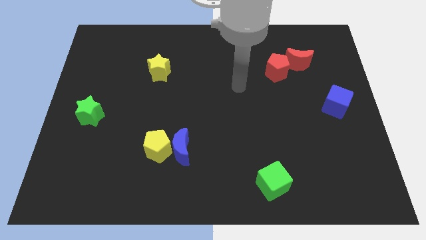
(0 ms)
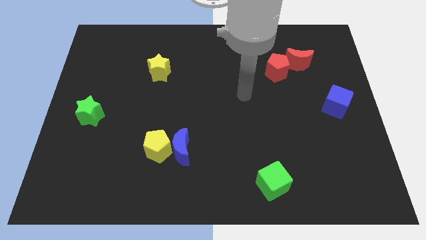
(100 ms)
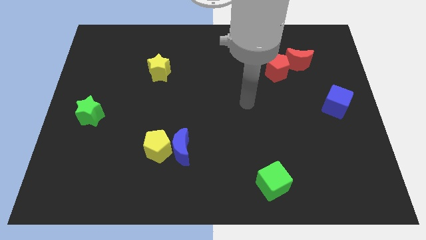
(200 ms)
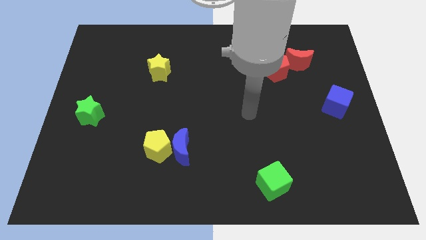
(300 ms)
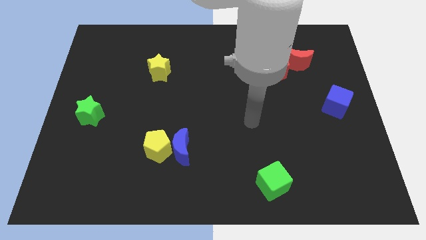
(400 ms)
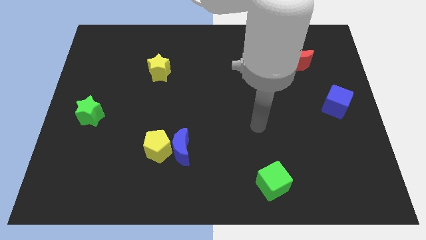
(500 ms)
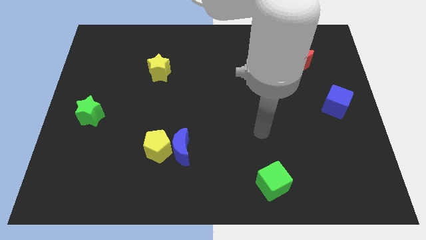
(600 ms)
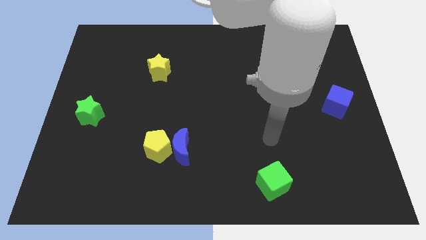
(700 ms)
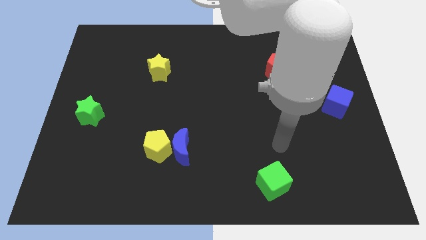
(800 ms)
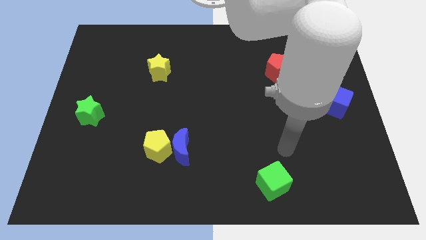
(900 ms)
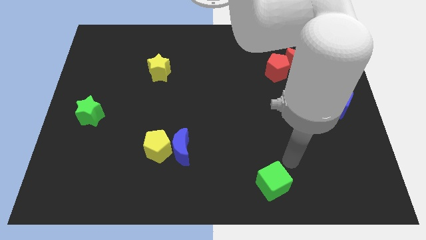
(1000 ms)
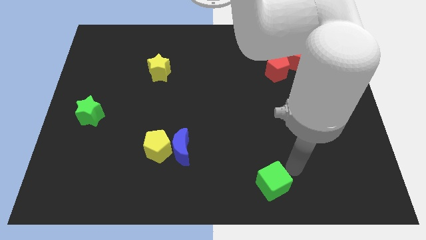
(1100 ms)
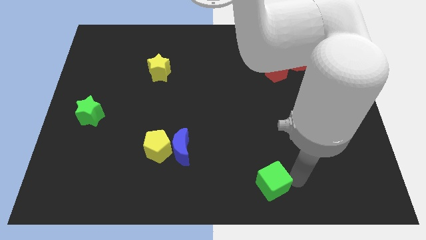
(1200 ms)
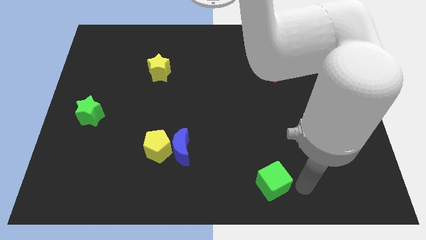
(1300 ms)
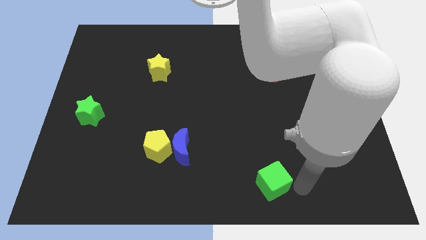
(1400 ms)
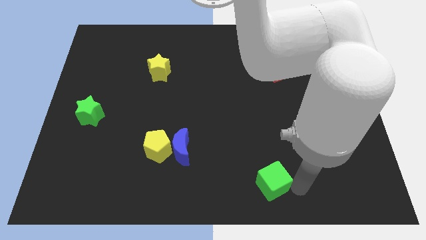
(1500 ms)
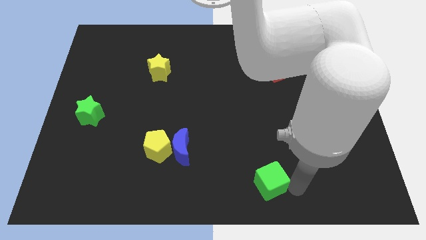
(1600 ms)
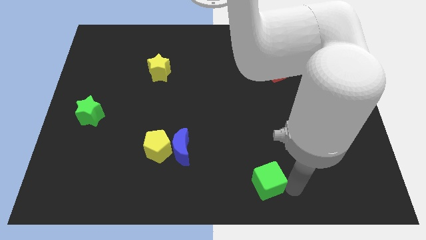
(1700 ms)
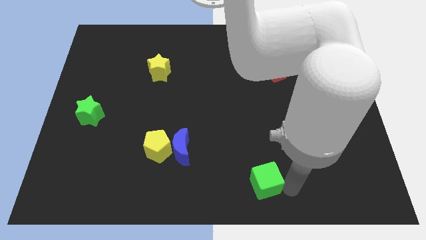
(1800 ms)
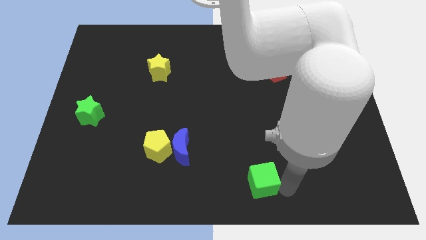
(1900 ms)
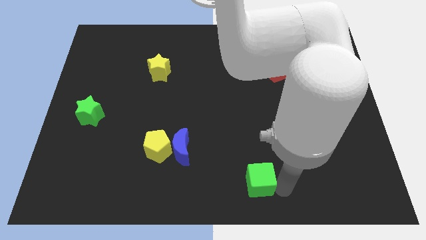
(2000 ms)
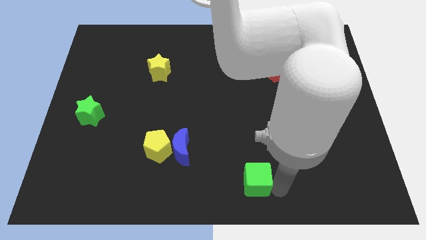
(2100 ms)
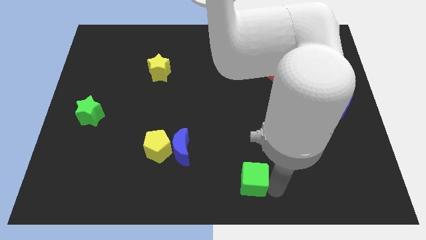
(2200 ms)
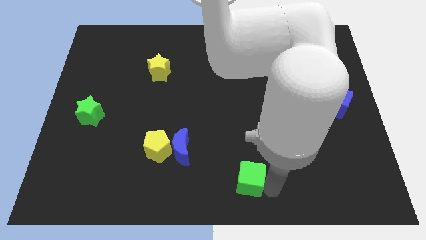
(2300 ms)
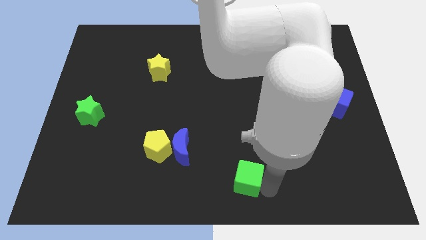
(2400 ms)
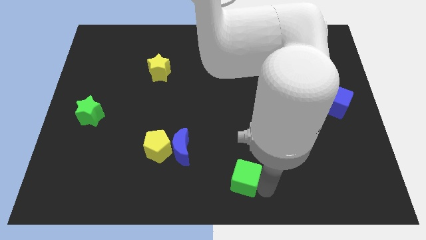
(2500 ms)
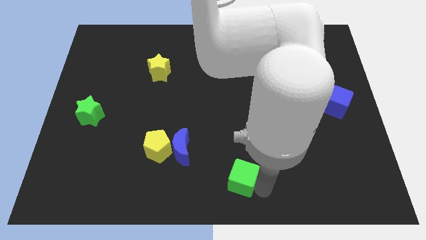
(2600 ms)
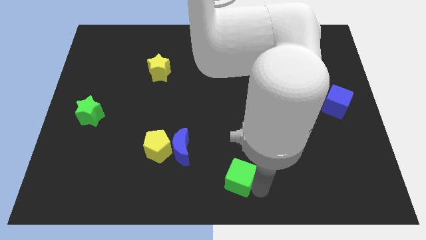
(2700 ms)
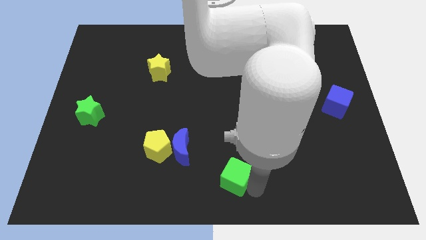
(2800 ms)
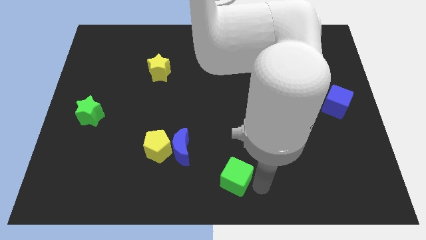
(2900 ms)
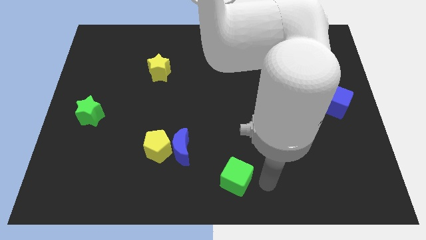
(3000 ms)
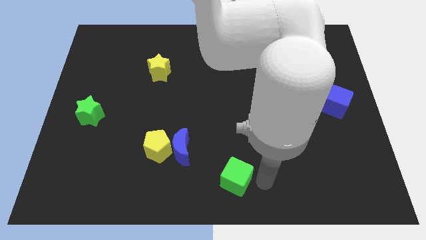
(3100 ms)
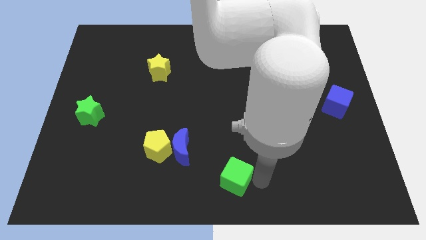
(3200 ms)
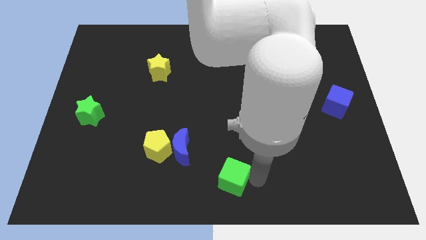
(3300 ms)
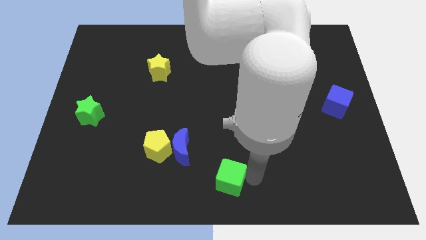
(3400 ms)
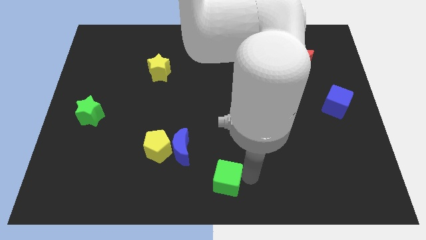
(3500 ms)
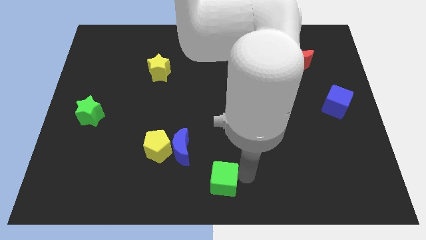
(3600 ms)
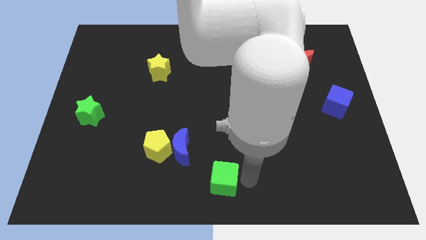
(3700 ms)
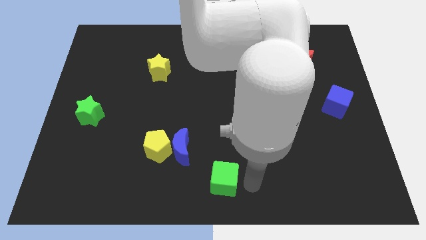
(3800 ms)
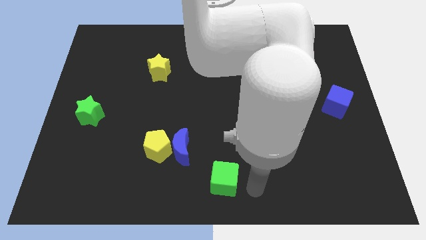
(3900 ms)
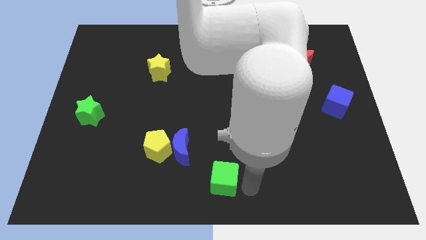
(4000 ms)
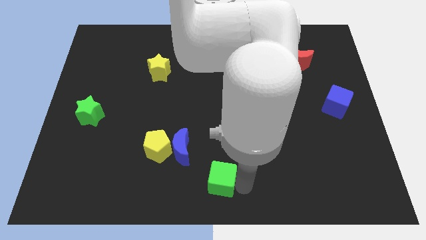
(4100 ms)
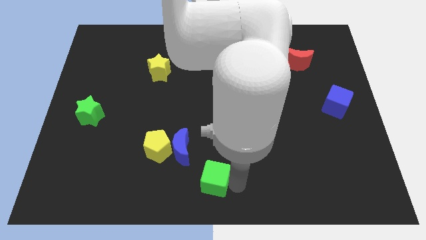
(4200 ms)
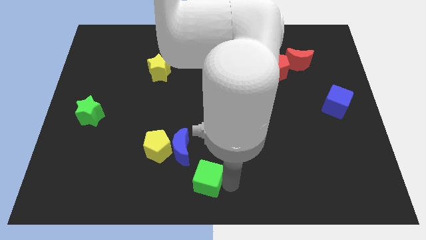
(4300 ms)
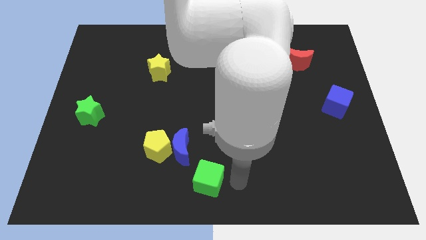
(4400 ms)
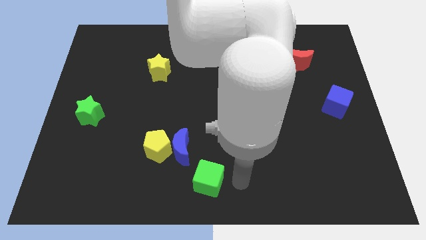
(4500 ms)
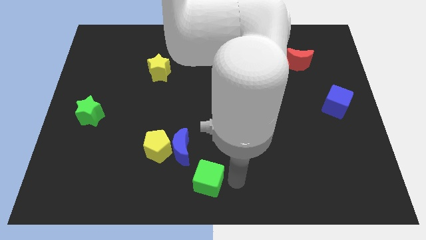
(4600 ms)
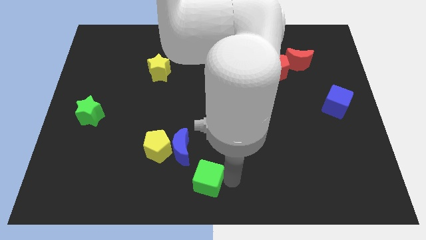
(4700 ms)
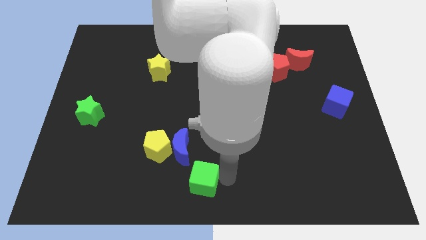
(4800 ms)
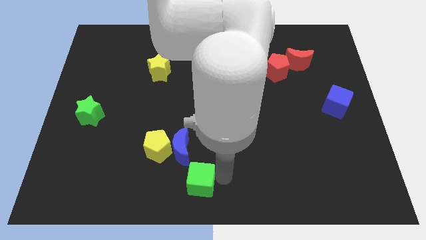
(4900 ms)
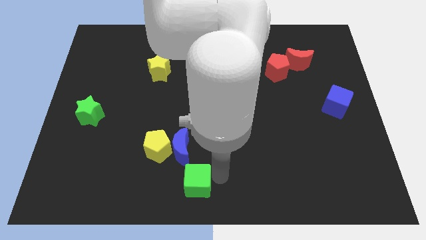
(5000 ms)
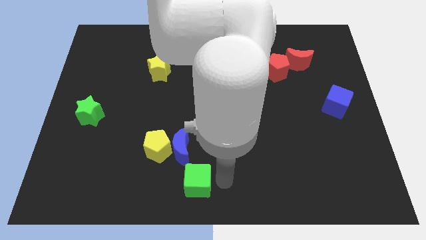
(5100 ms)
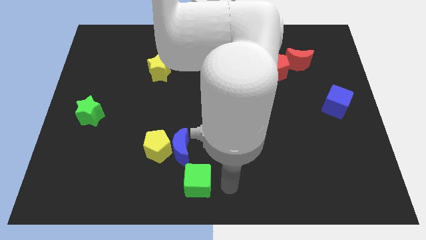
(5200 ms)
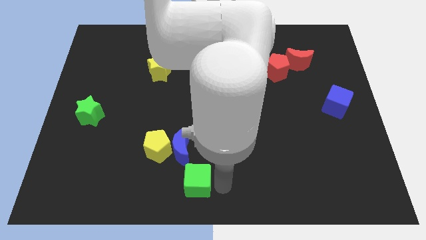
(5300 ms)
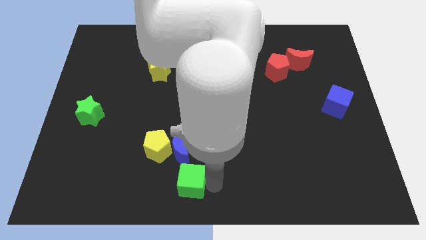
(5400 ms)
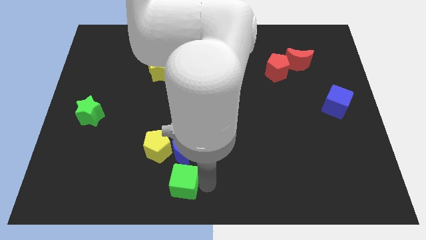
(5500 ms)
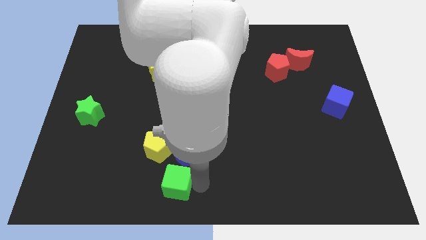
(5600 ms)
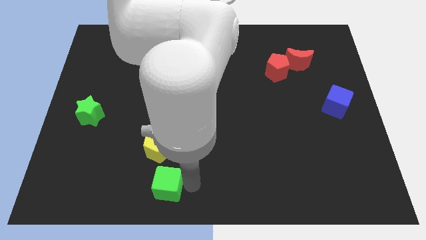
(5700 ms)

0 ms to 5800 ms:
slide the green cube to the left

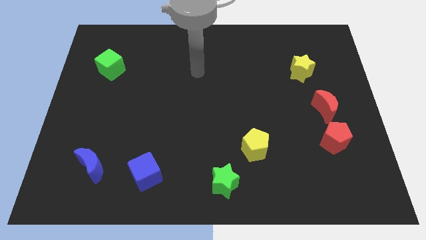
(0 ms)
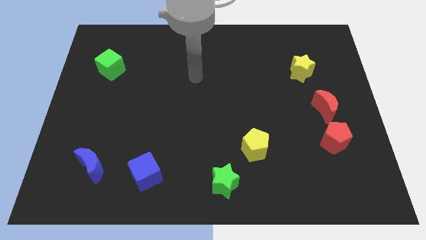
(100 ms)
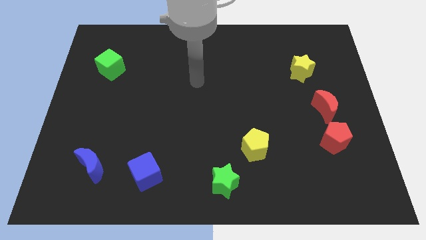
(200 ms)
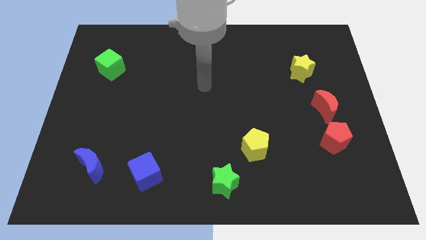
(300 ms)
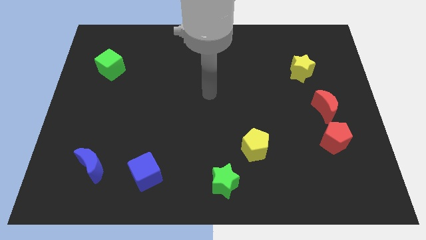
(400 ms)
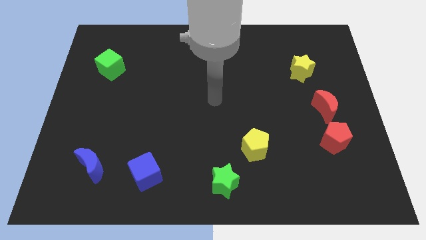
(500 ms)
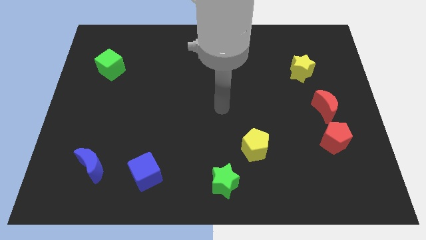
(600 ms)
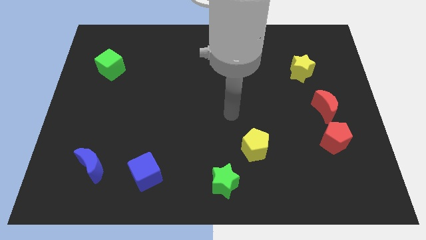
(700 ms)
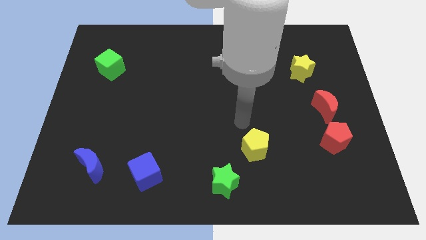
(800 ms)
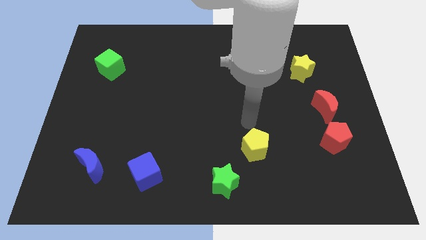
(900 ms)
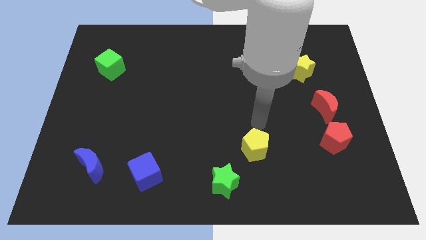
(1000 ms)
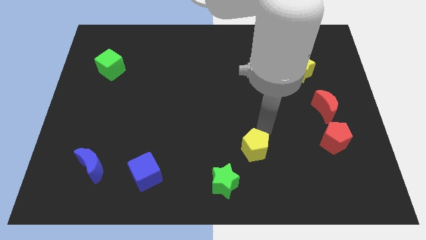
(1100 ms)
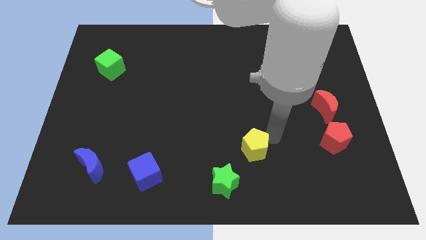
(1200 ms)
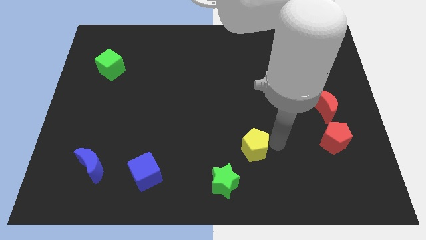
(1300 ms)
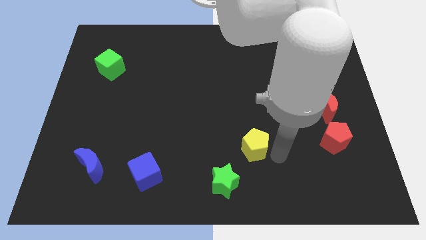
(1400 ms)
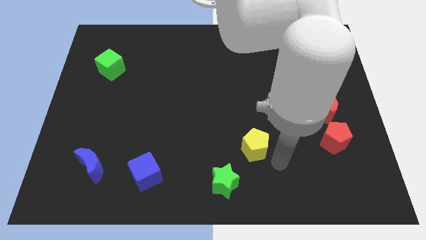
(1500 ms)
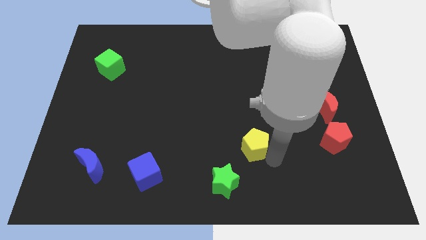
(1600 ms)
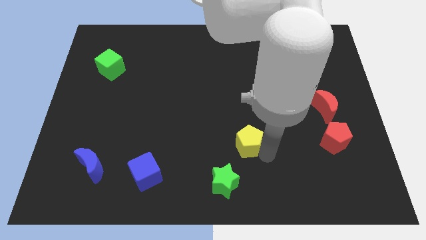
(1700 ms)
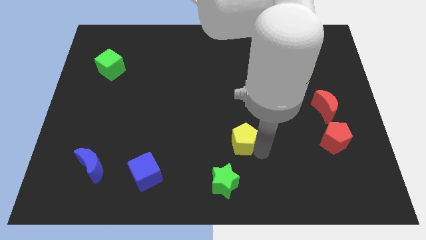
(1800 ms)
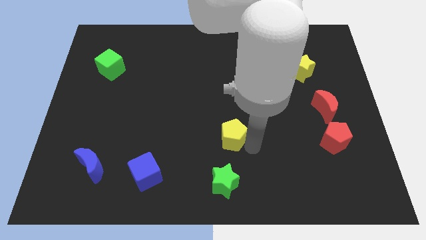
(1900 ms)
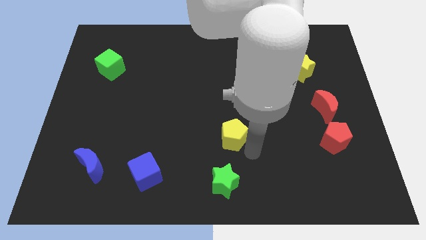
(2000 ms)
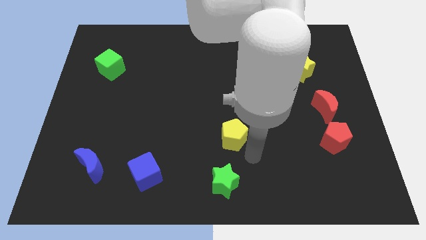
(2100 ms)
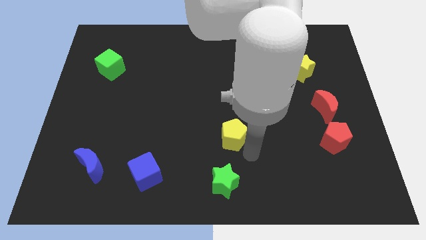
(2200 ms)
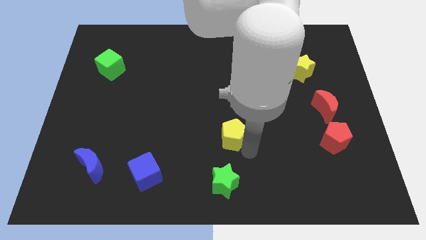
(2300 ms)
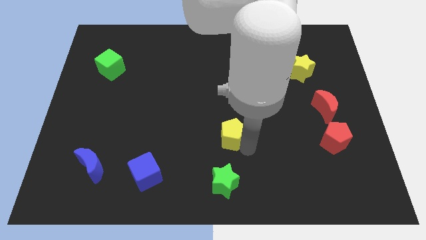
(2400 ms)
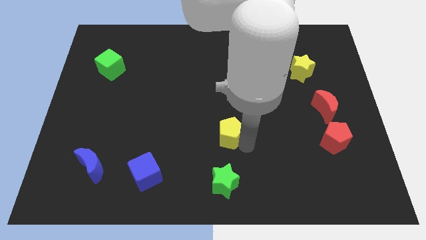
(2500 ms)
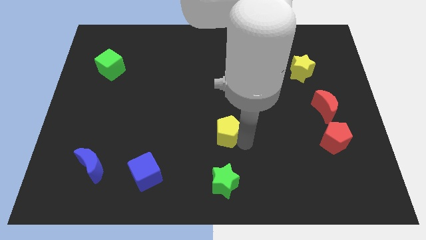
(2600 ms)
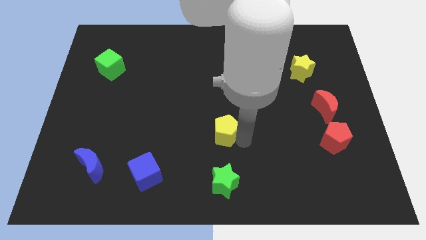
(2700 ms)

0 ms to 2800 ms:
slightly push the yellow pentagon up and left diagonally
